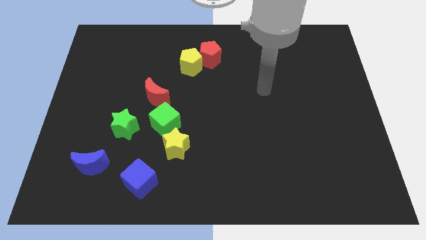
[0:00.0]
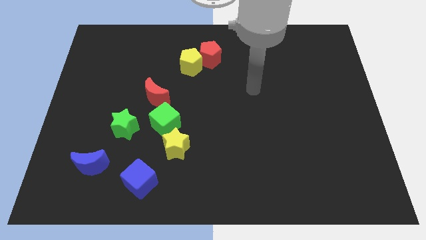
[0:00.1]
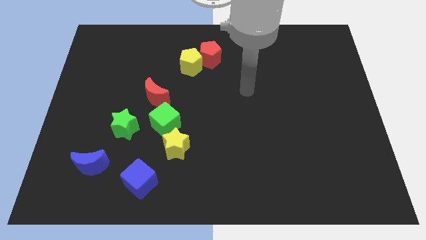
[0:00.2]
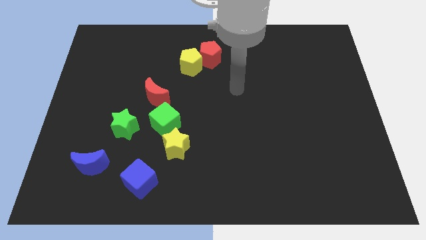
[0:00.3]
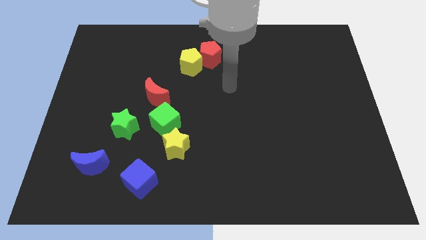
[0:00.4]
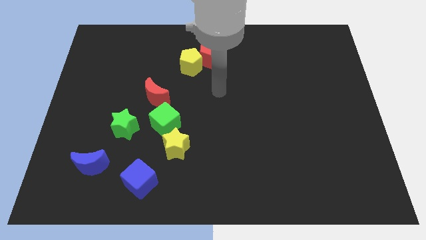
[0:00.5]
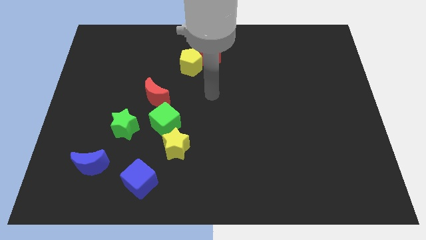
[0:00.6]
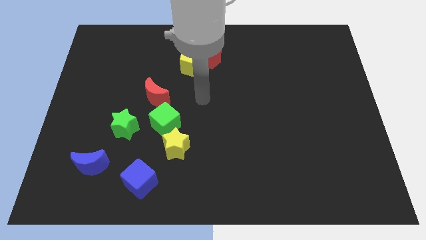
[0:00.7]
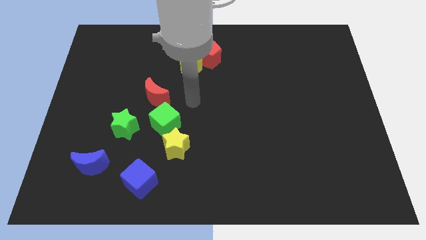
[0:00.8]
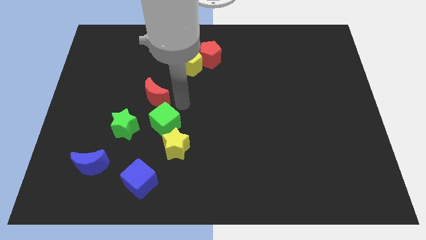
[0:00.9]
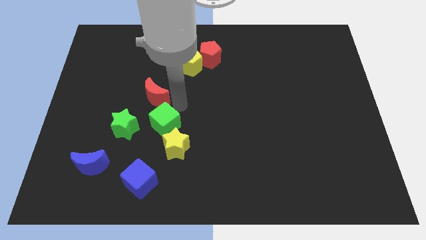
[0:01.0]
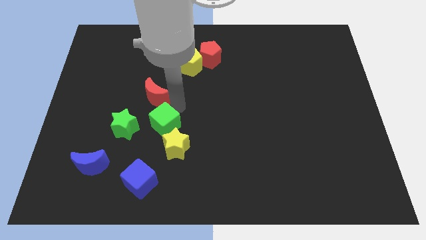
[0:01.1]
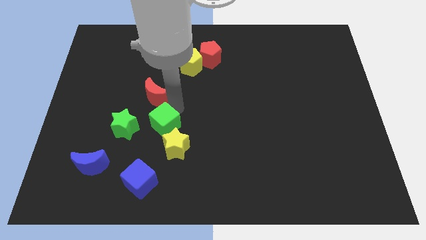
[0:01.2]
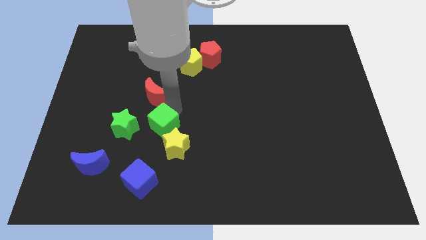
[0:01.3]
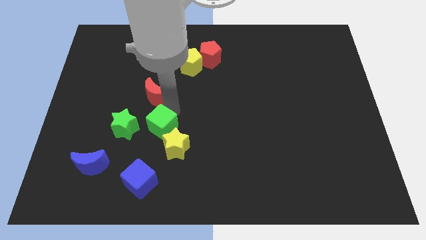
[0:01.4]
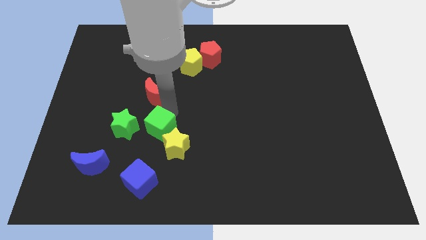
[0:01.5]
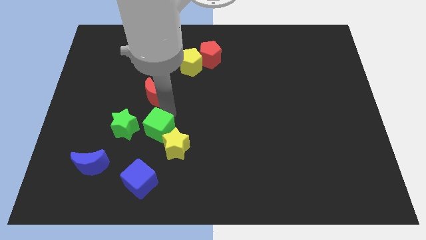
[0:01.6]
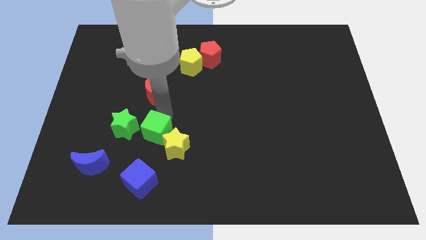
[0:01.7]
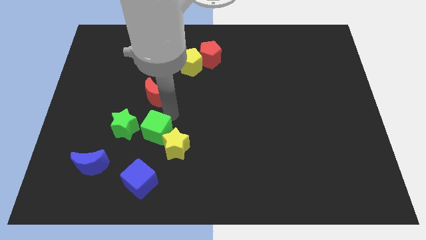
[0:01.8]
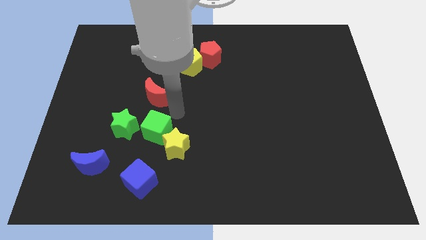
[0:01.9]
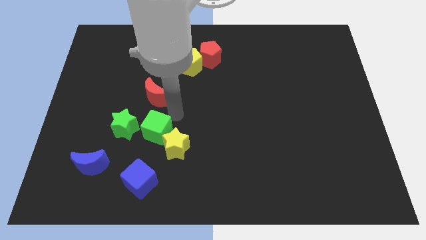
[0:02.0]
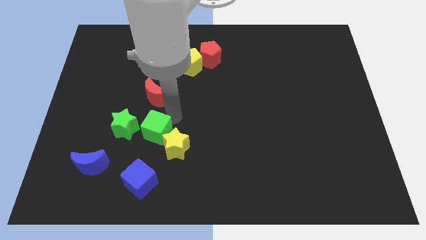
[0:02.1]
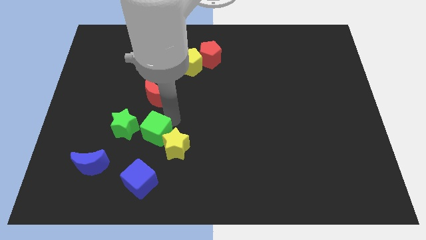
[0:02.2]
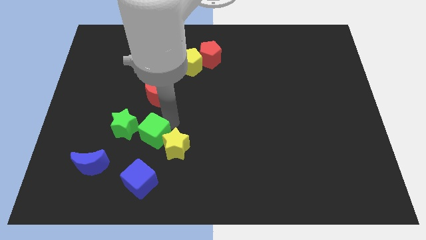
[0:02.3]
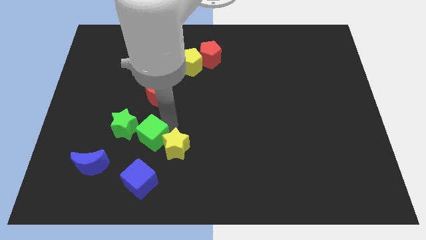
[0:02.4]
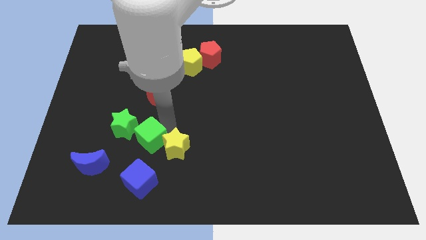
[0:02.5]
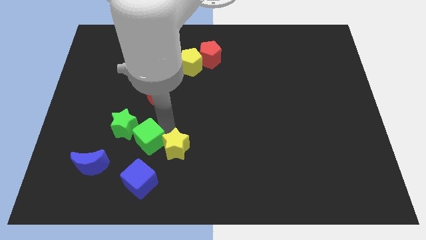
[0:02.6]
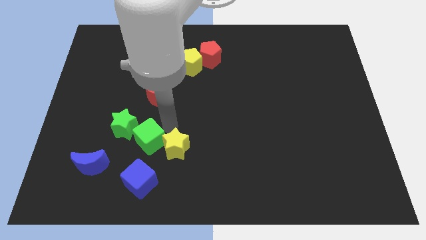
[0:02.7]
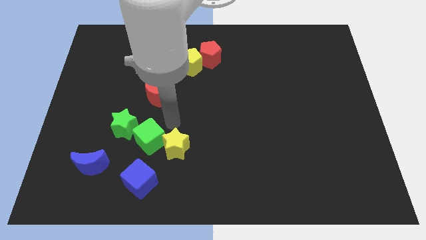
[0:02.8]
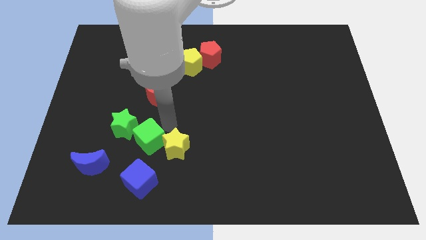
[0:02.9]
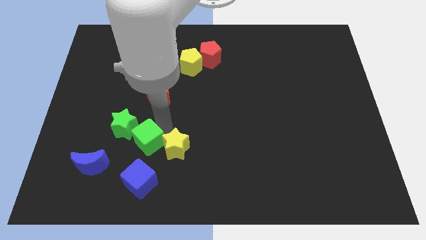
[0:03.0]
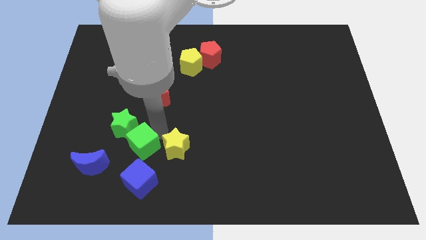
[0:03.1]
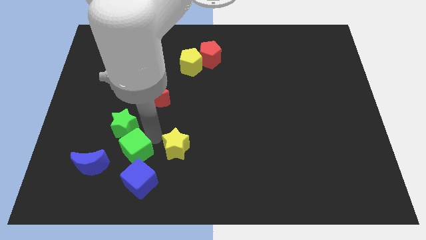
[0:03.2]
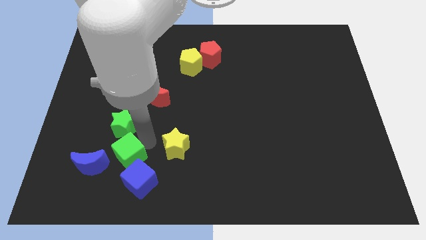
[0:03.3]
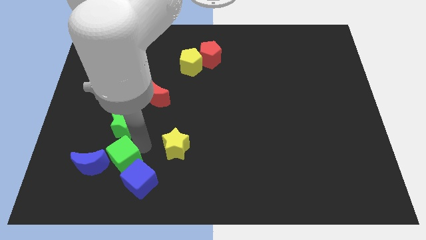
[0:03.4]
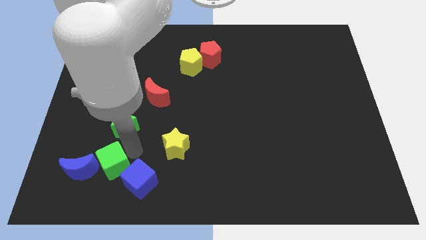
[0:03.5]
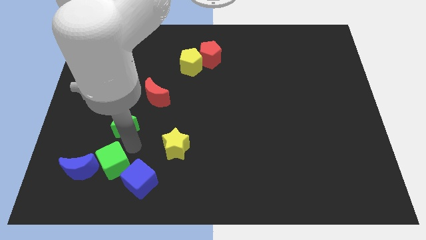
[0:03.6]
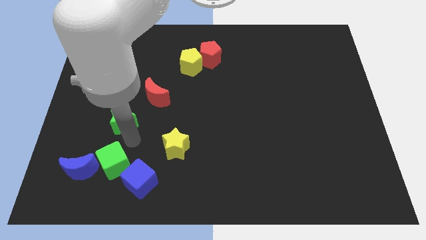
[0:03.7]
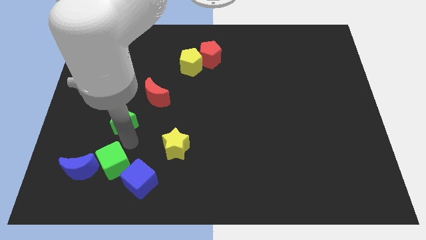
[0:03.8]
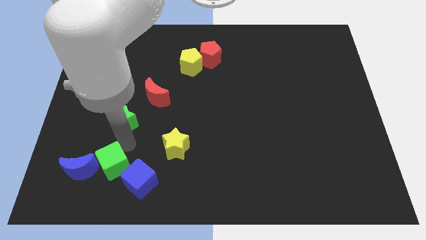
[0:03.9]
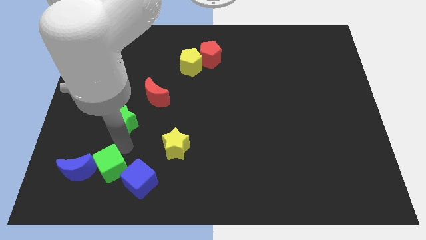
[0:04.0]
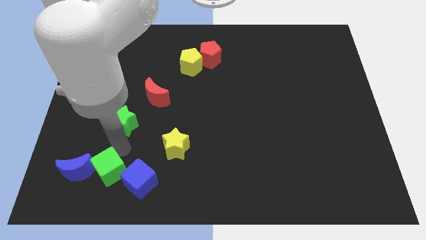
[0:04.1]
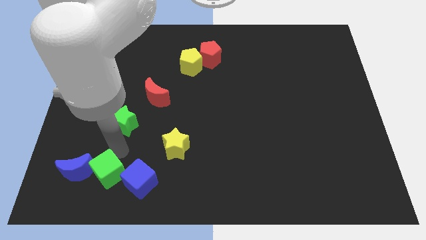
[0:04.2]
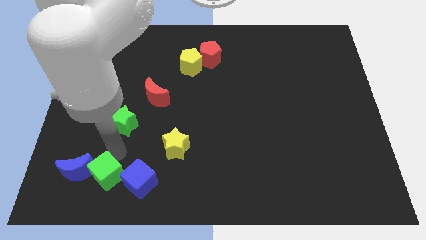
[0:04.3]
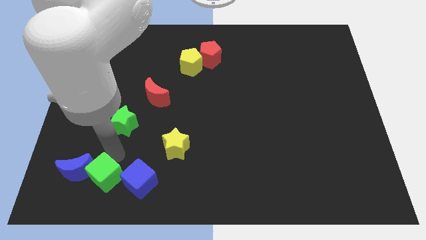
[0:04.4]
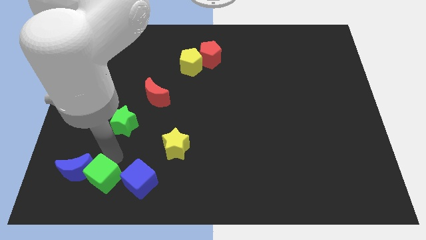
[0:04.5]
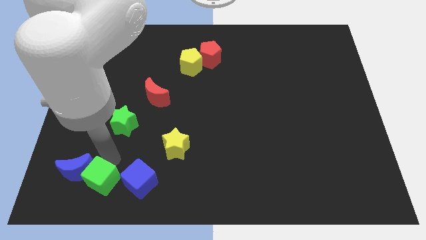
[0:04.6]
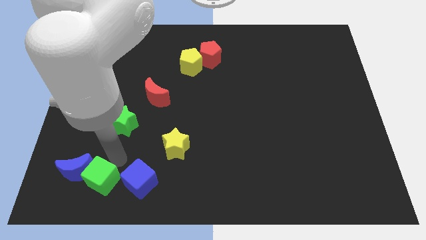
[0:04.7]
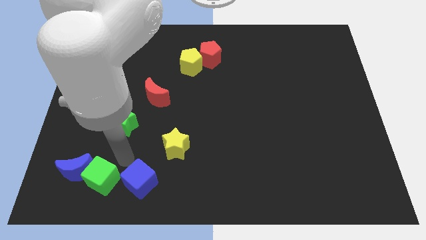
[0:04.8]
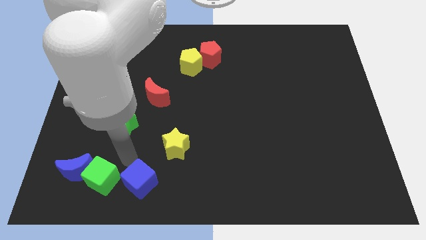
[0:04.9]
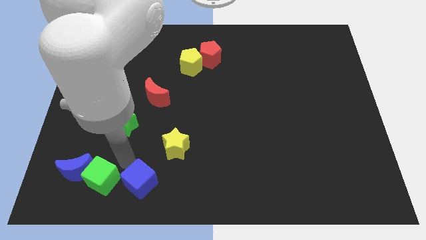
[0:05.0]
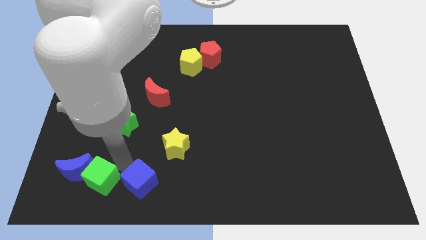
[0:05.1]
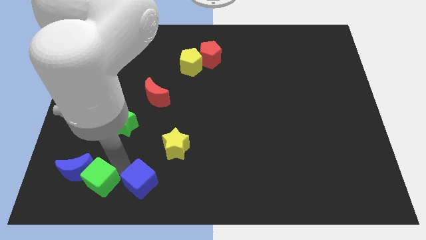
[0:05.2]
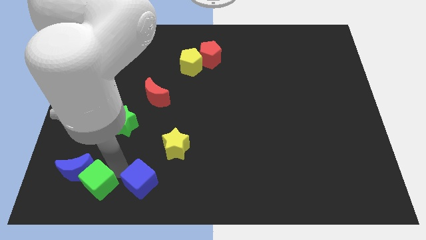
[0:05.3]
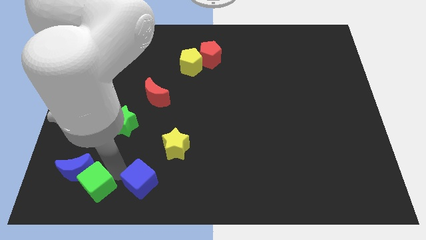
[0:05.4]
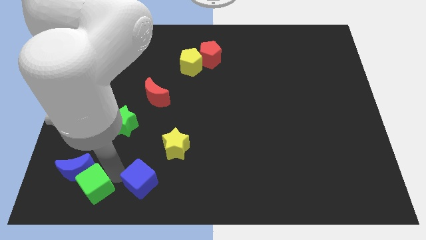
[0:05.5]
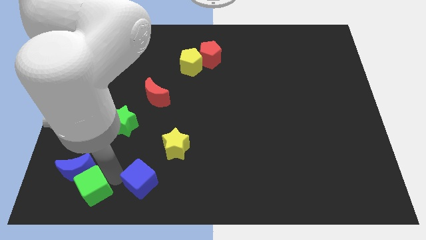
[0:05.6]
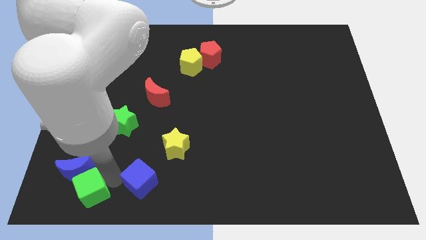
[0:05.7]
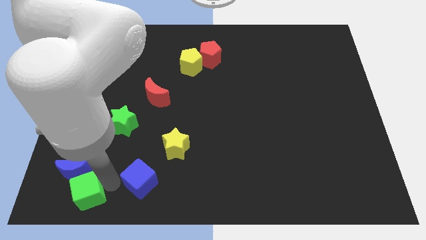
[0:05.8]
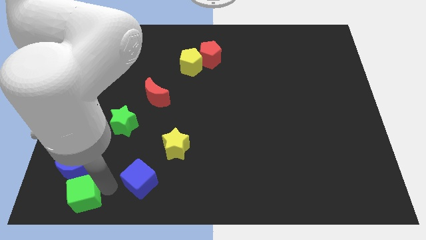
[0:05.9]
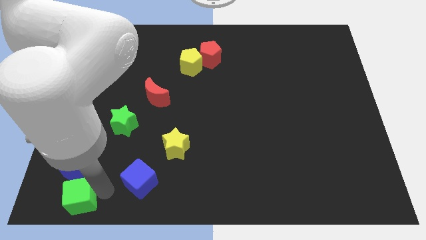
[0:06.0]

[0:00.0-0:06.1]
move the green cube to the bottom left of the board

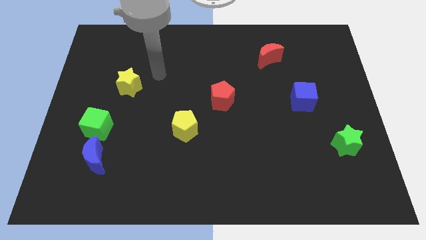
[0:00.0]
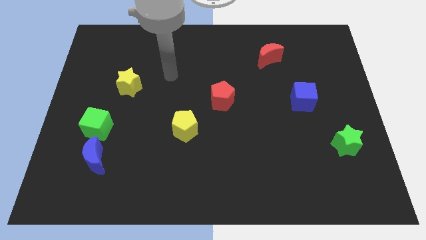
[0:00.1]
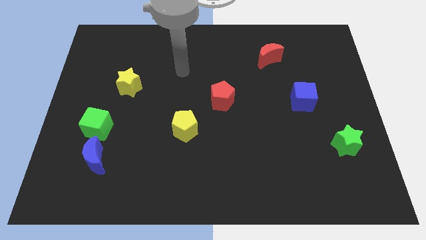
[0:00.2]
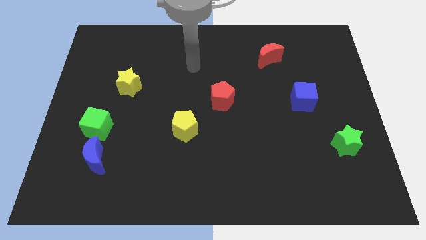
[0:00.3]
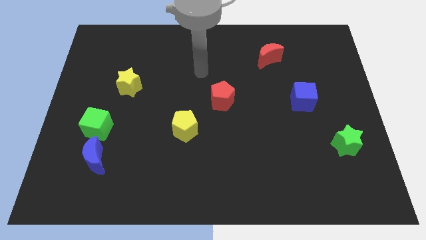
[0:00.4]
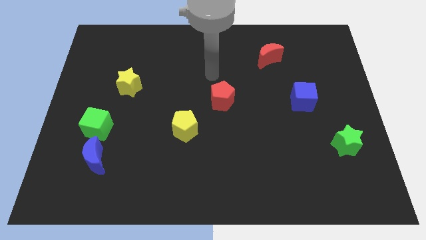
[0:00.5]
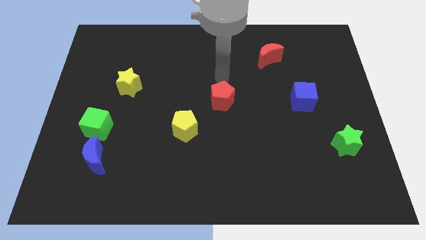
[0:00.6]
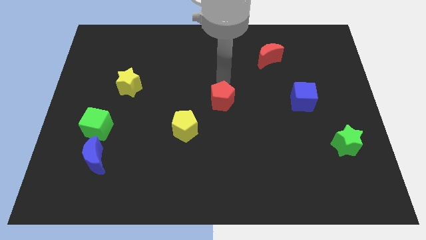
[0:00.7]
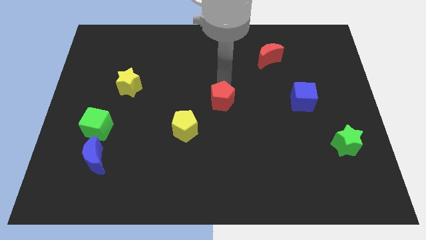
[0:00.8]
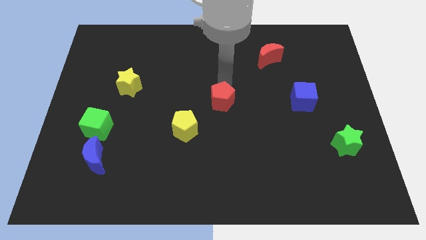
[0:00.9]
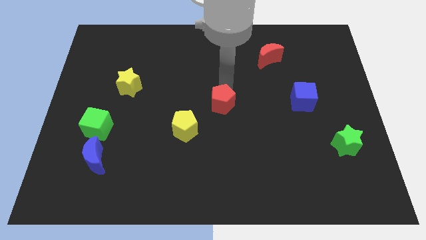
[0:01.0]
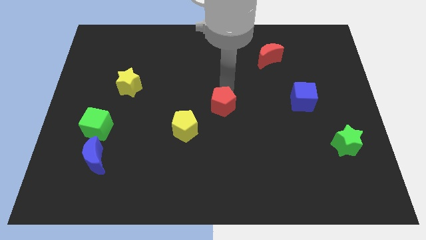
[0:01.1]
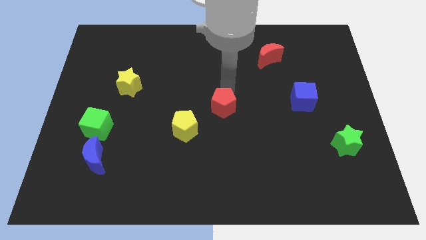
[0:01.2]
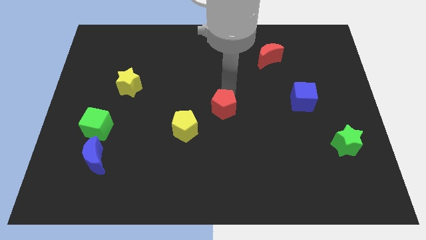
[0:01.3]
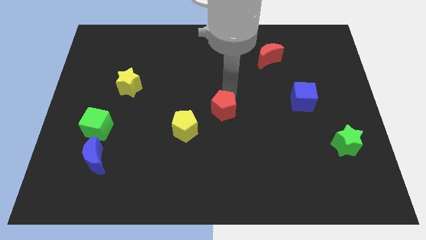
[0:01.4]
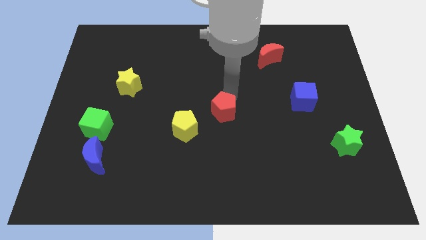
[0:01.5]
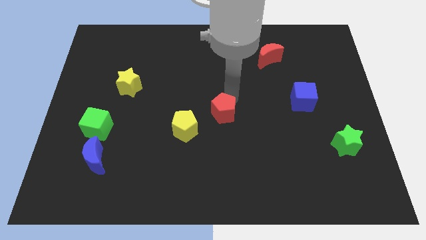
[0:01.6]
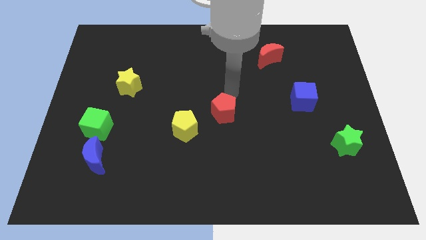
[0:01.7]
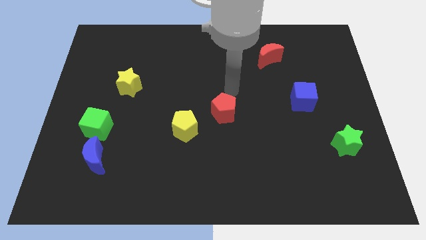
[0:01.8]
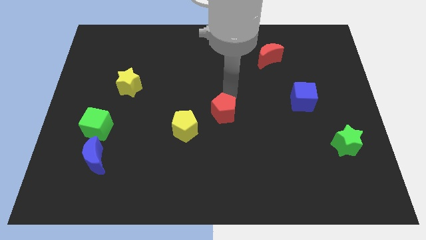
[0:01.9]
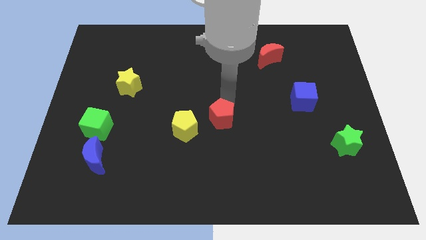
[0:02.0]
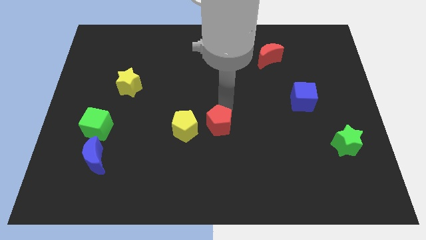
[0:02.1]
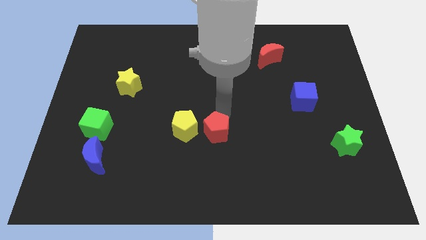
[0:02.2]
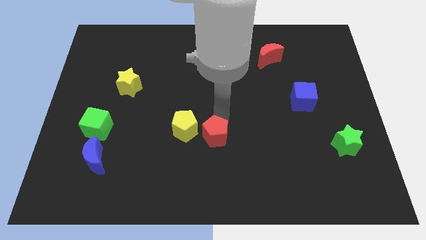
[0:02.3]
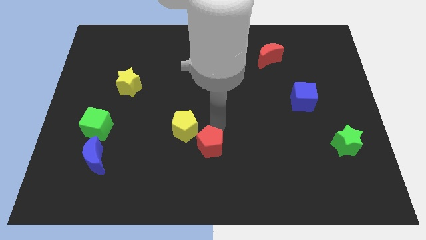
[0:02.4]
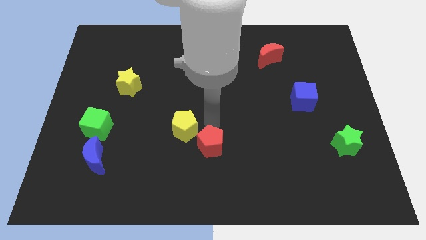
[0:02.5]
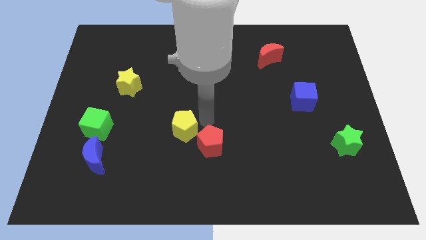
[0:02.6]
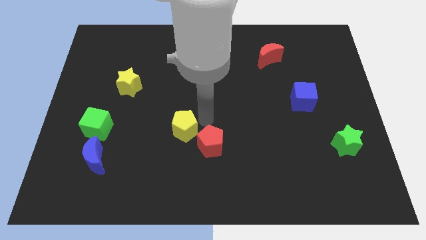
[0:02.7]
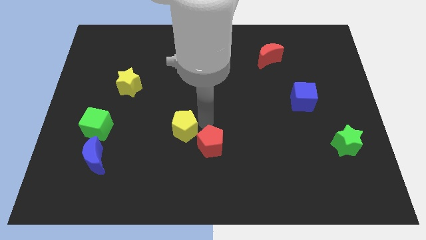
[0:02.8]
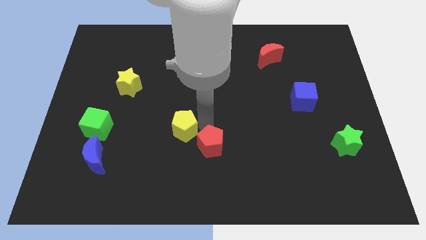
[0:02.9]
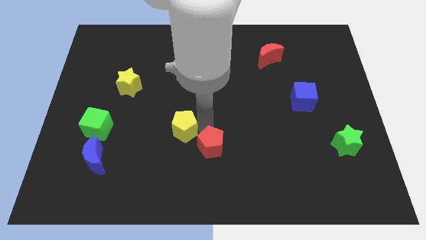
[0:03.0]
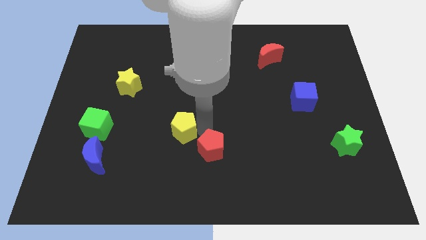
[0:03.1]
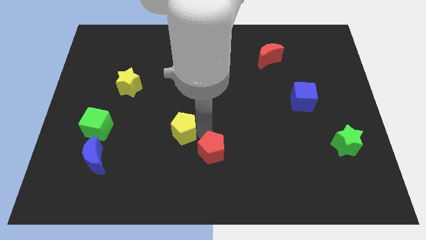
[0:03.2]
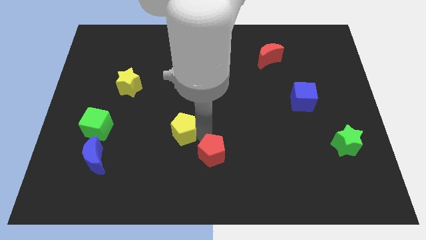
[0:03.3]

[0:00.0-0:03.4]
push the red pentagon to the bottom side
